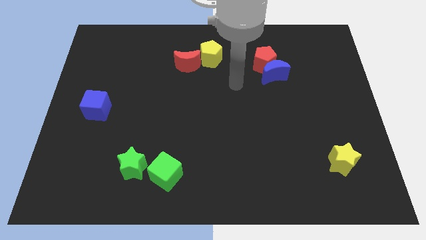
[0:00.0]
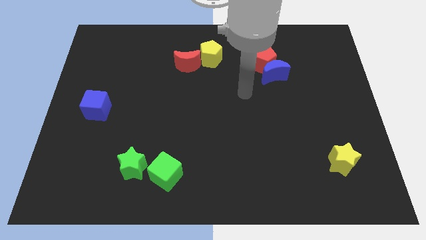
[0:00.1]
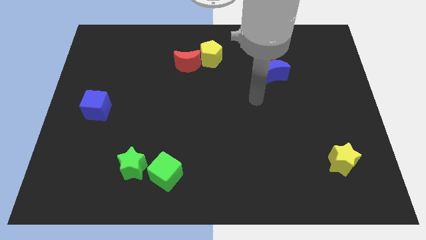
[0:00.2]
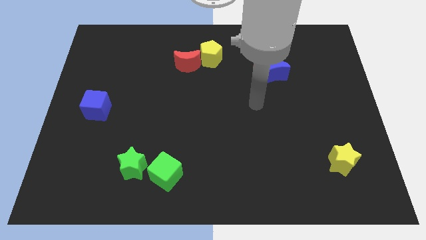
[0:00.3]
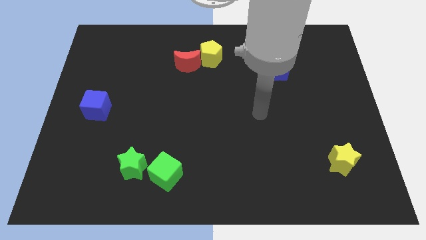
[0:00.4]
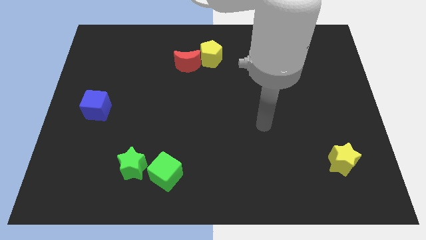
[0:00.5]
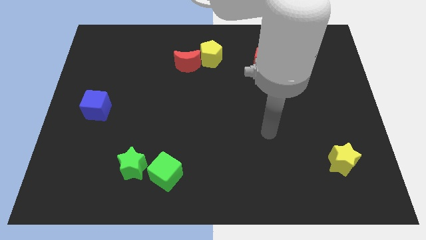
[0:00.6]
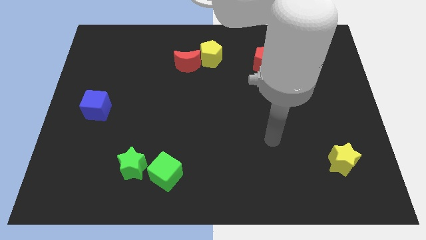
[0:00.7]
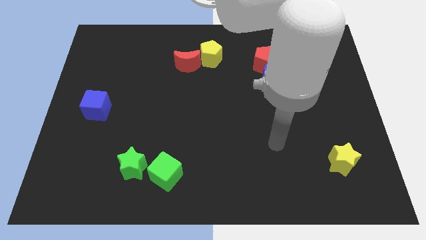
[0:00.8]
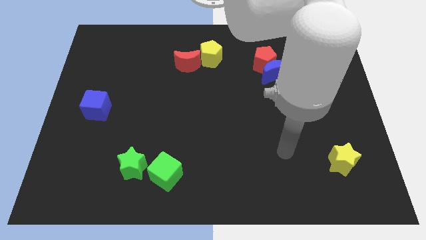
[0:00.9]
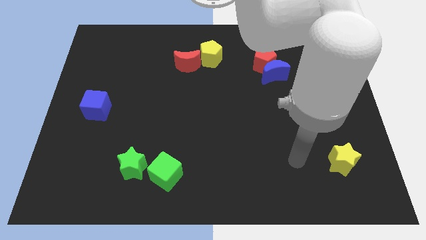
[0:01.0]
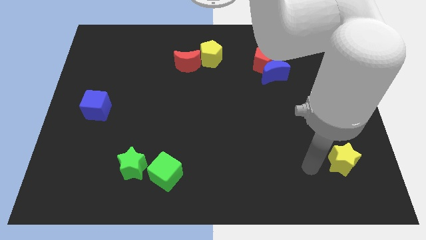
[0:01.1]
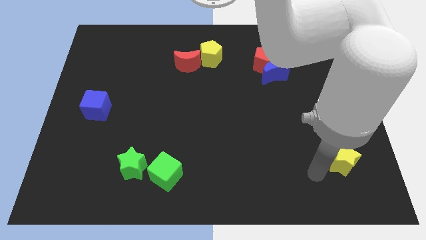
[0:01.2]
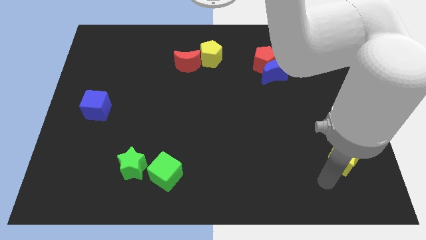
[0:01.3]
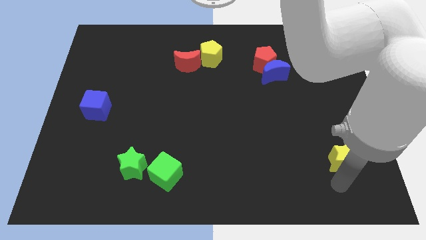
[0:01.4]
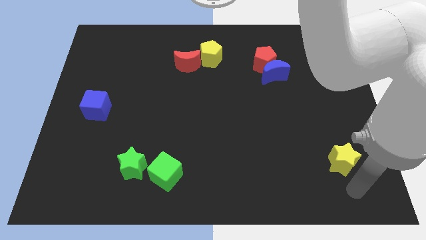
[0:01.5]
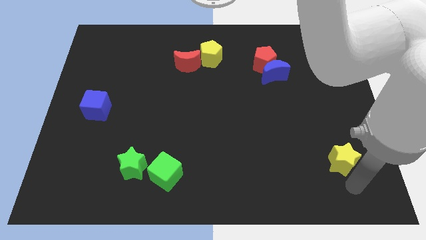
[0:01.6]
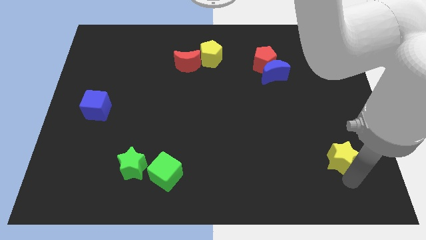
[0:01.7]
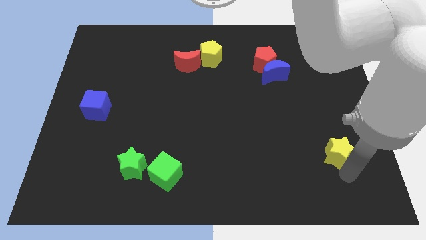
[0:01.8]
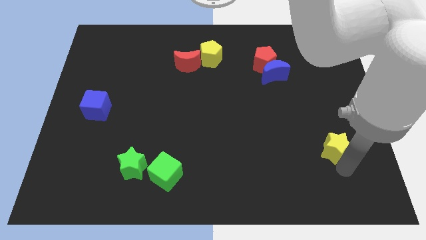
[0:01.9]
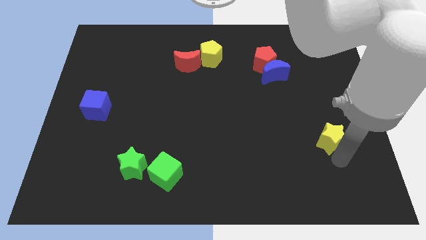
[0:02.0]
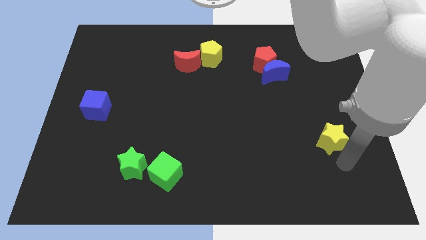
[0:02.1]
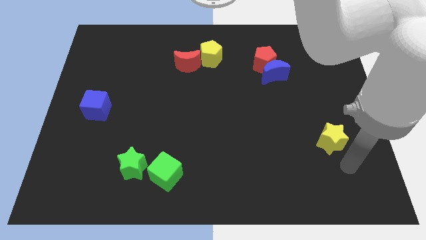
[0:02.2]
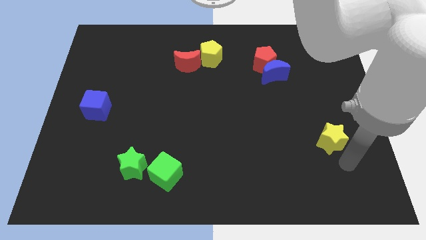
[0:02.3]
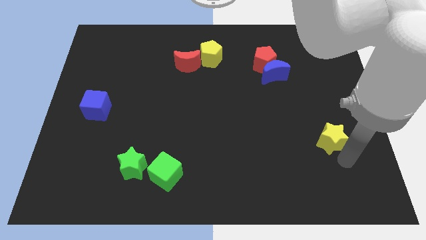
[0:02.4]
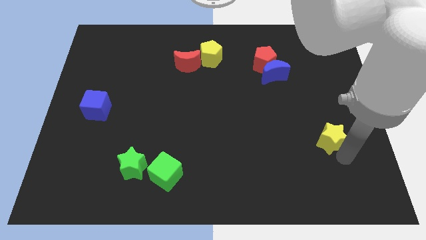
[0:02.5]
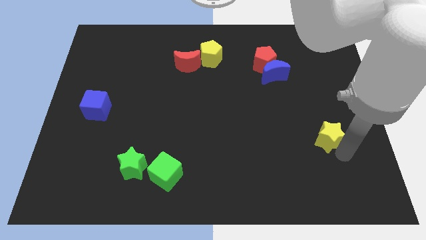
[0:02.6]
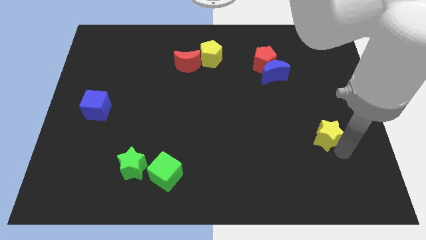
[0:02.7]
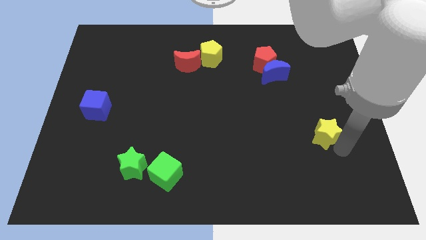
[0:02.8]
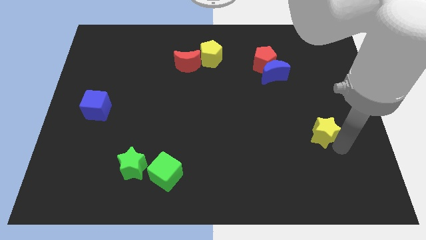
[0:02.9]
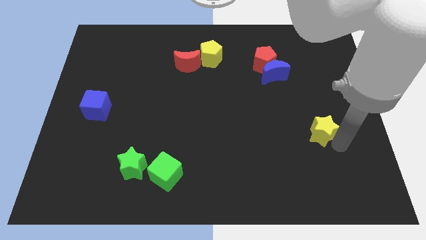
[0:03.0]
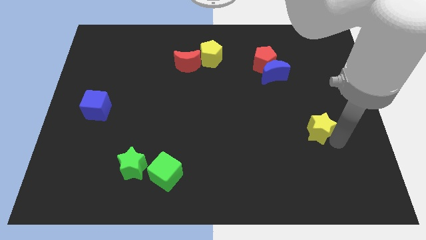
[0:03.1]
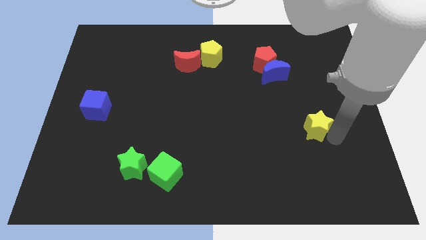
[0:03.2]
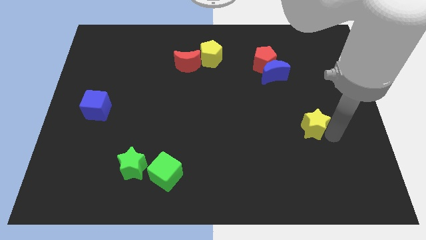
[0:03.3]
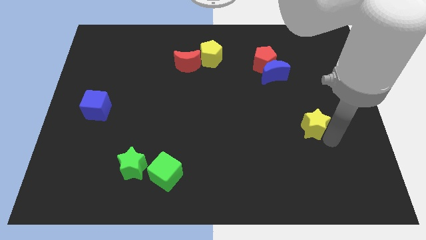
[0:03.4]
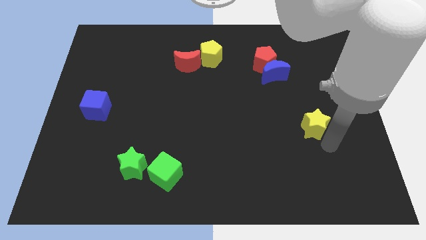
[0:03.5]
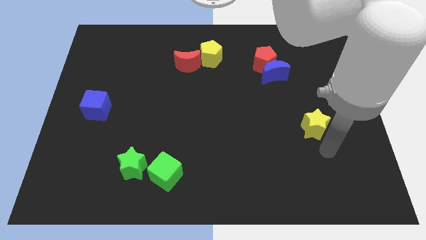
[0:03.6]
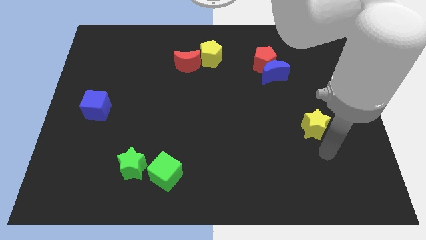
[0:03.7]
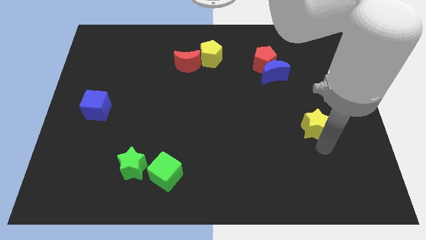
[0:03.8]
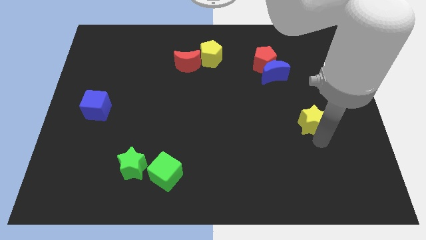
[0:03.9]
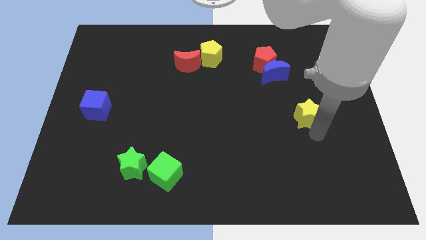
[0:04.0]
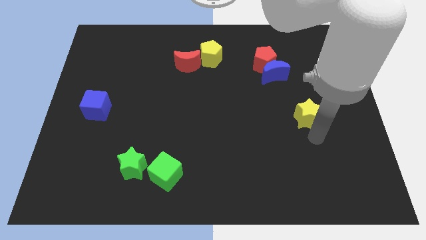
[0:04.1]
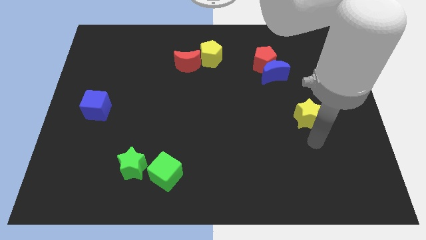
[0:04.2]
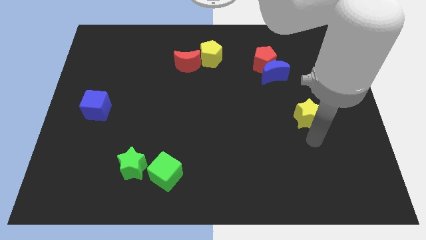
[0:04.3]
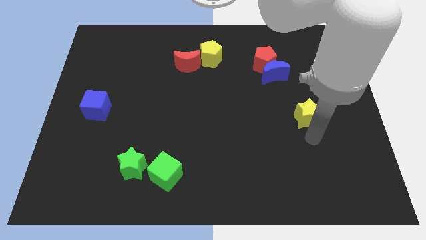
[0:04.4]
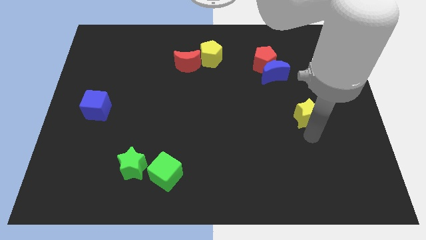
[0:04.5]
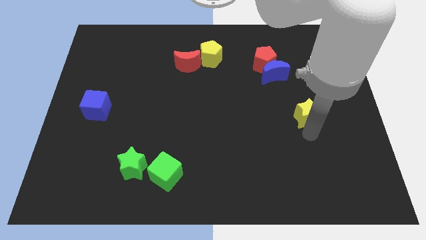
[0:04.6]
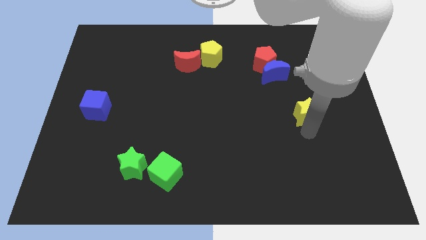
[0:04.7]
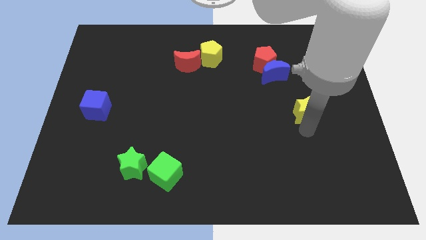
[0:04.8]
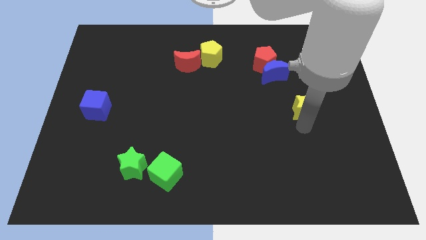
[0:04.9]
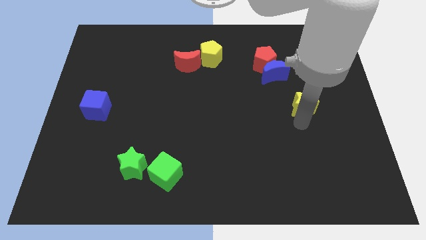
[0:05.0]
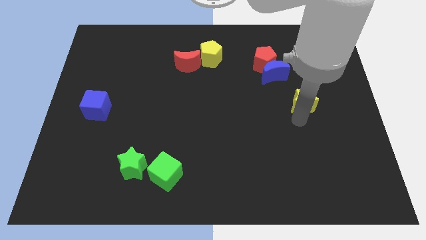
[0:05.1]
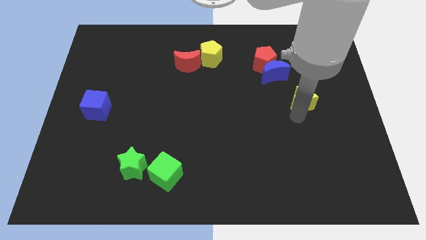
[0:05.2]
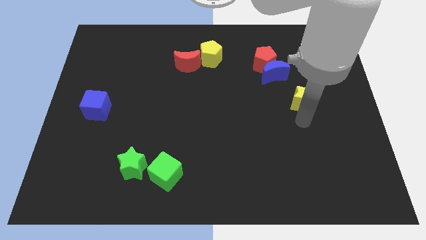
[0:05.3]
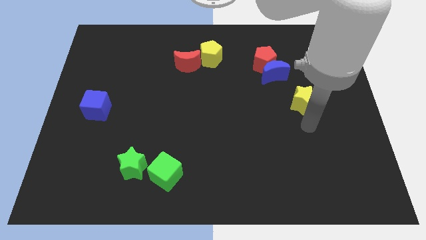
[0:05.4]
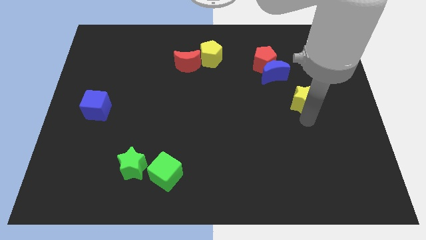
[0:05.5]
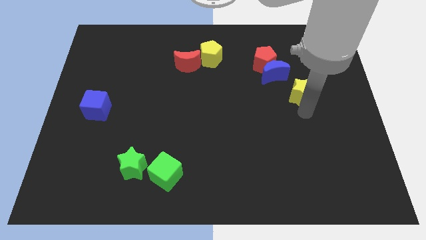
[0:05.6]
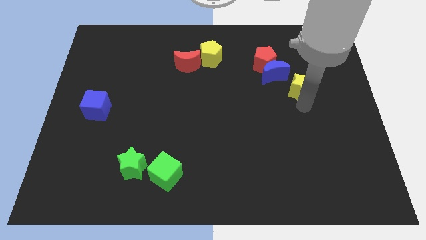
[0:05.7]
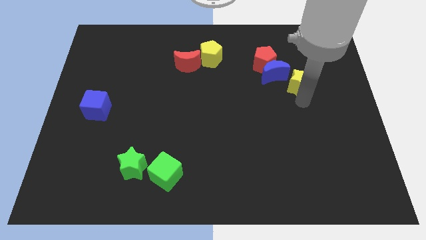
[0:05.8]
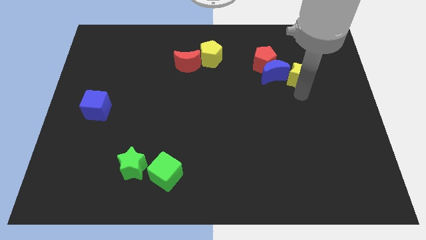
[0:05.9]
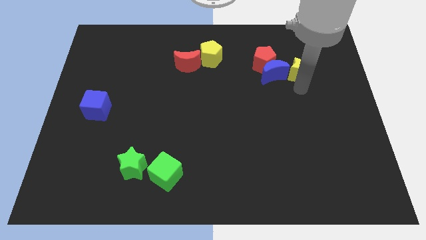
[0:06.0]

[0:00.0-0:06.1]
push the yellow star to the top right of the blue moon

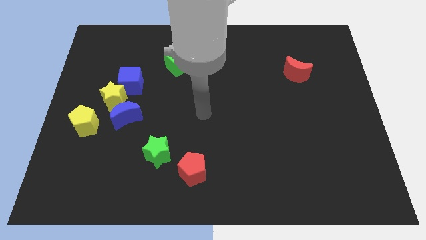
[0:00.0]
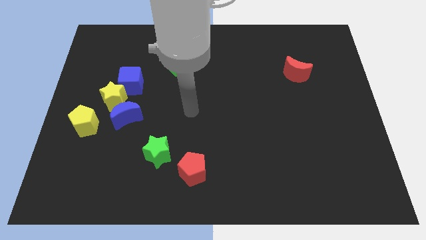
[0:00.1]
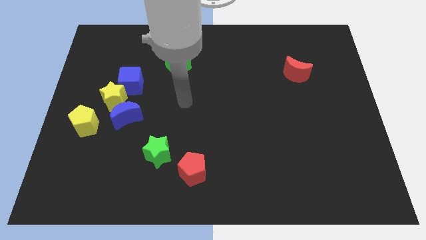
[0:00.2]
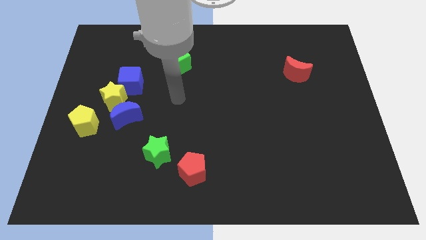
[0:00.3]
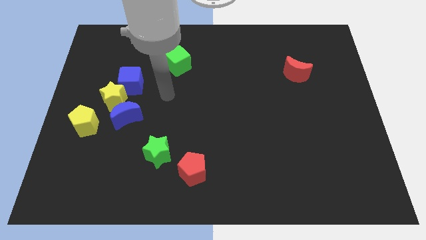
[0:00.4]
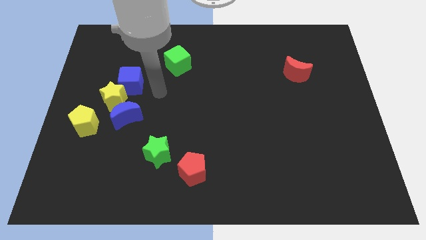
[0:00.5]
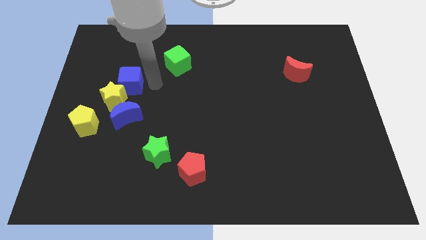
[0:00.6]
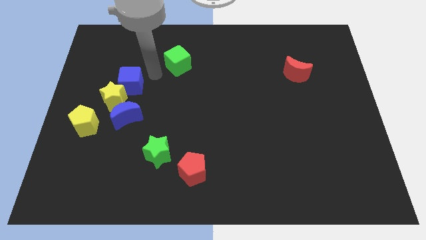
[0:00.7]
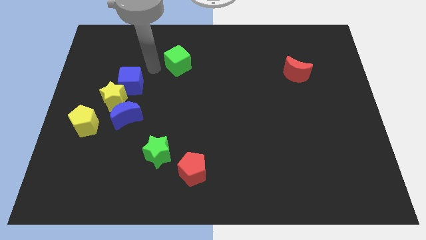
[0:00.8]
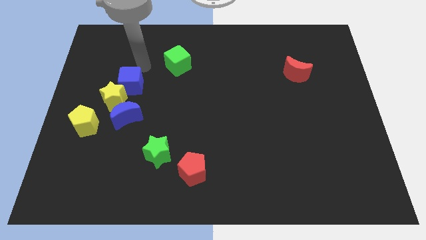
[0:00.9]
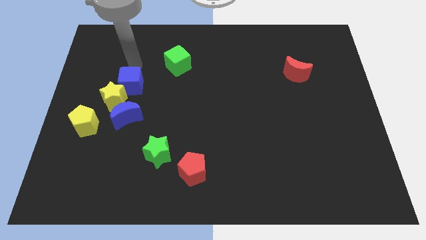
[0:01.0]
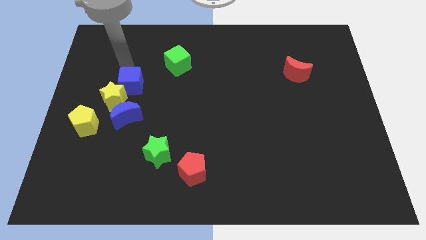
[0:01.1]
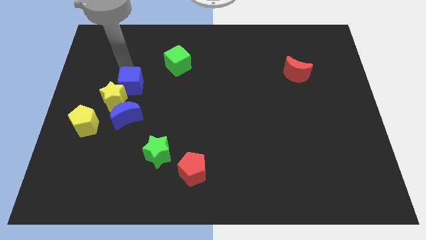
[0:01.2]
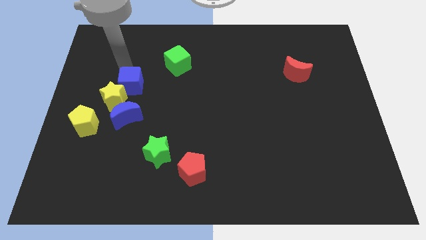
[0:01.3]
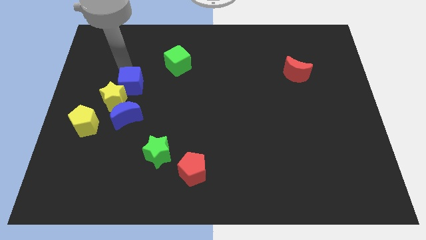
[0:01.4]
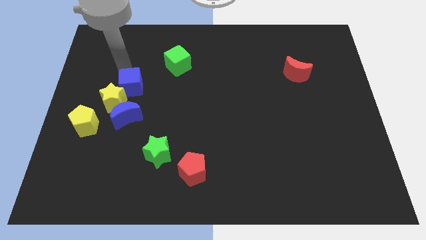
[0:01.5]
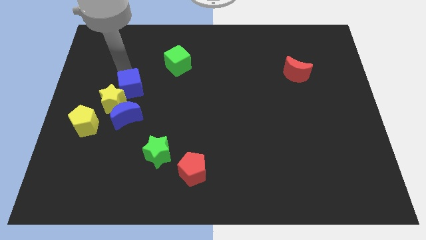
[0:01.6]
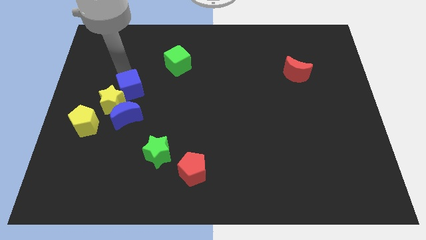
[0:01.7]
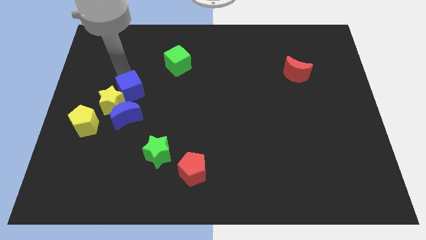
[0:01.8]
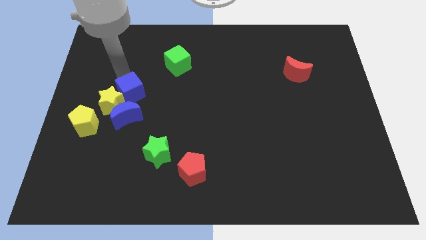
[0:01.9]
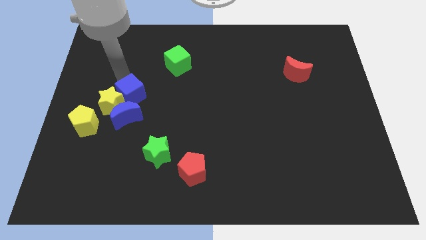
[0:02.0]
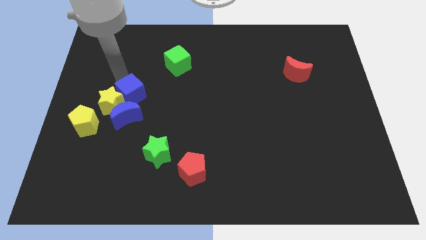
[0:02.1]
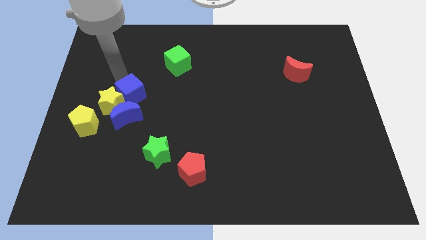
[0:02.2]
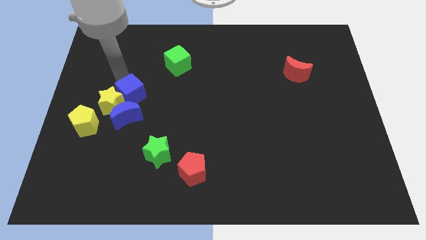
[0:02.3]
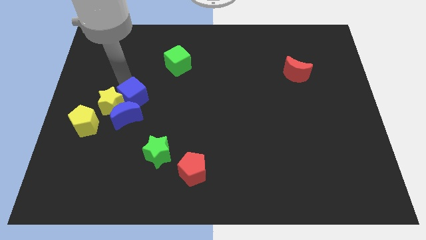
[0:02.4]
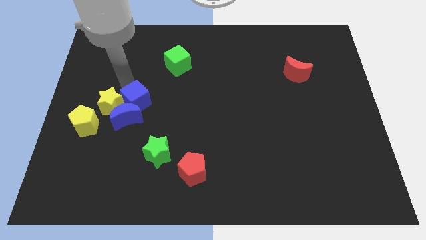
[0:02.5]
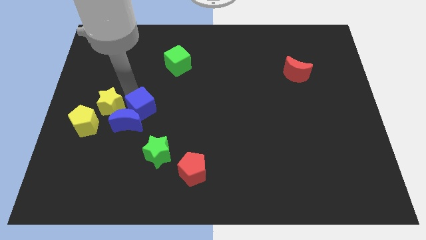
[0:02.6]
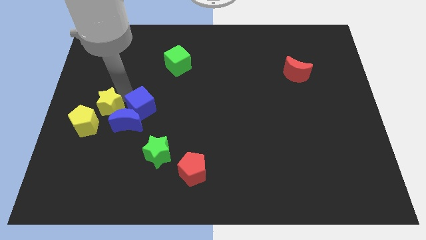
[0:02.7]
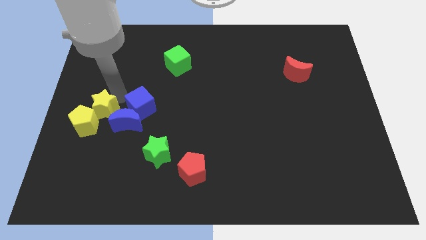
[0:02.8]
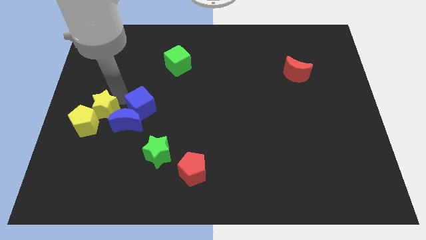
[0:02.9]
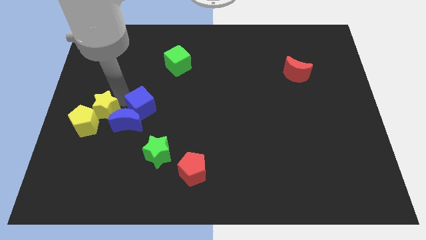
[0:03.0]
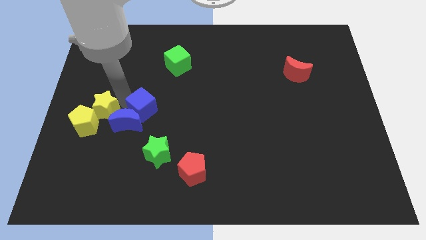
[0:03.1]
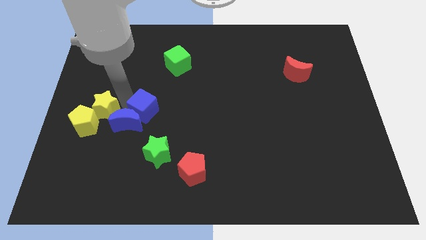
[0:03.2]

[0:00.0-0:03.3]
slide the blue cube to the top of the green star
